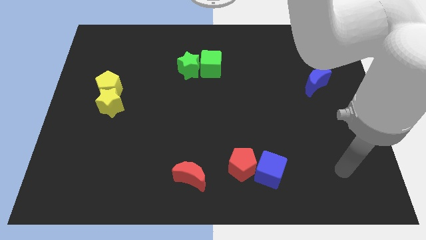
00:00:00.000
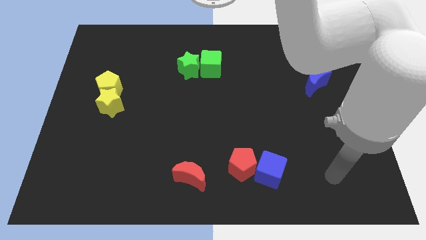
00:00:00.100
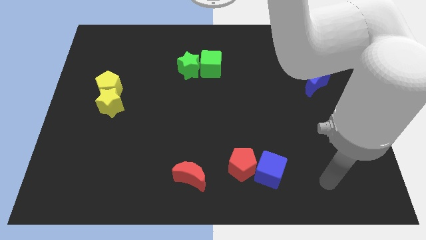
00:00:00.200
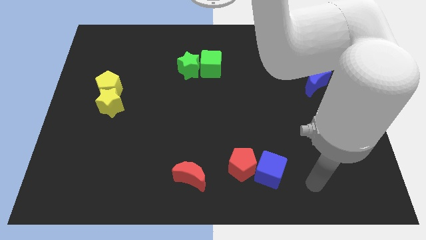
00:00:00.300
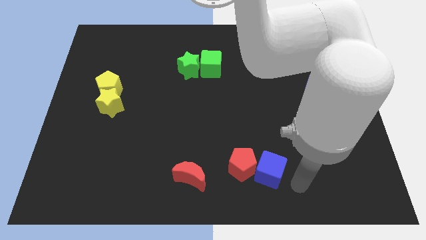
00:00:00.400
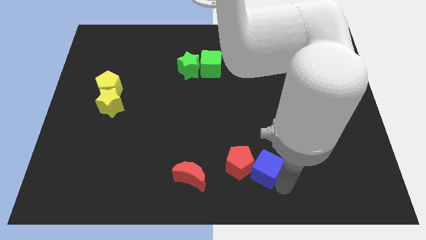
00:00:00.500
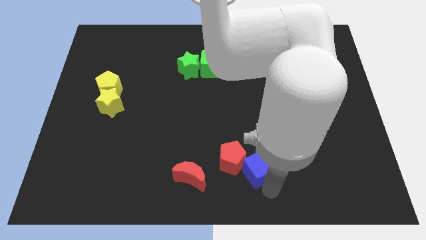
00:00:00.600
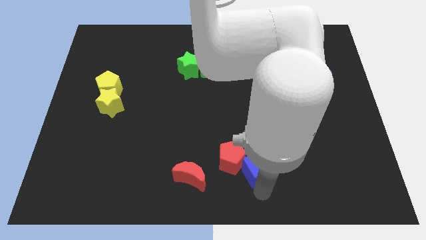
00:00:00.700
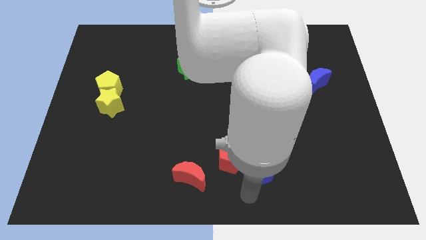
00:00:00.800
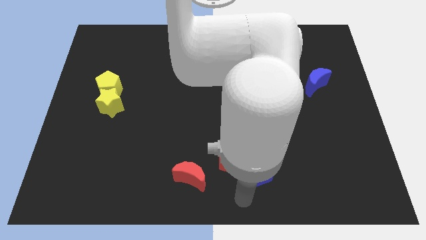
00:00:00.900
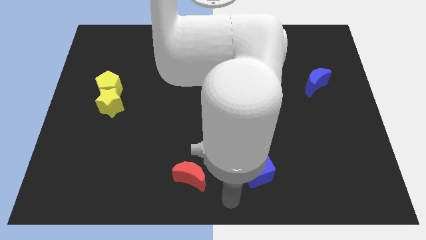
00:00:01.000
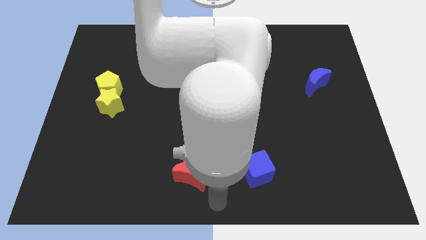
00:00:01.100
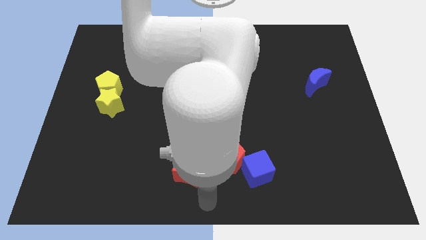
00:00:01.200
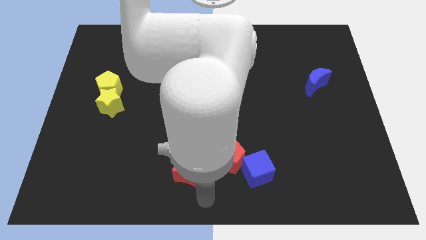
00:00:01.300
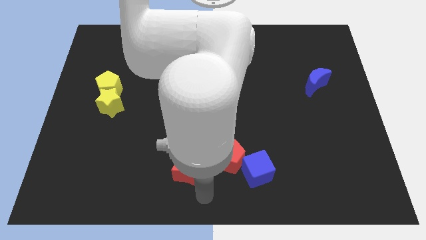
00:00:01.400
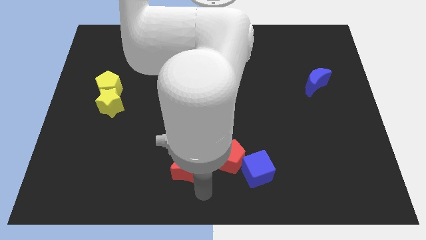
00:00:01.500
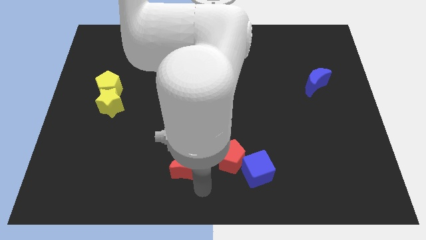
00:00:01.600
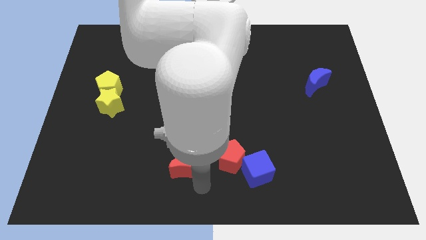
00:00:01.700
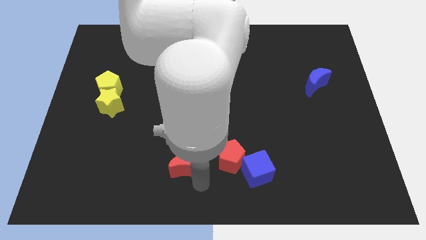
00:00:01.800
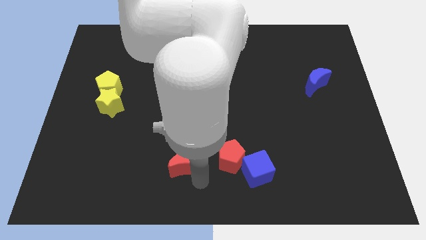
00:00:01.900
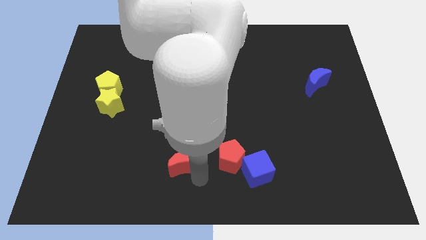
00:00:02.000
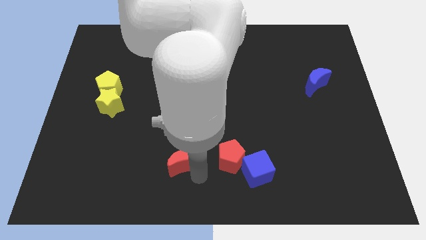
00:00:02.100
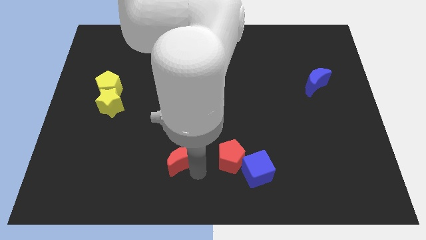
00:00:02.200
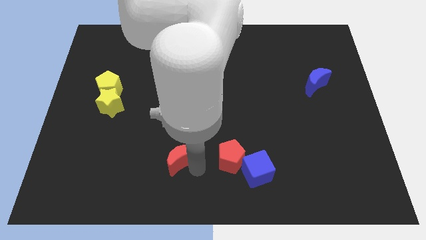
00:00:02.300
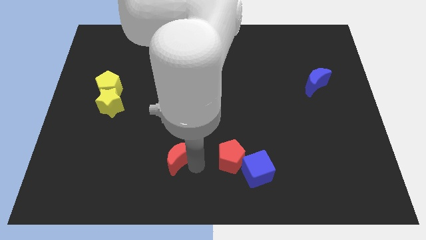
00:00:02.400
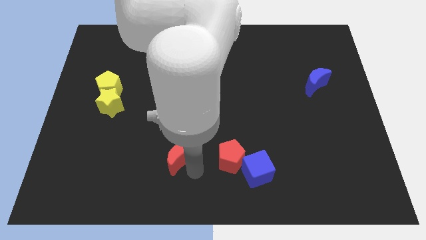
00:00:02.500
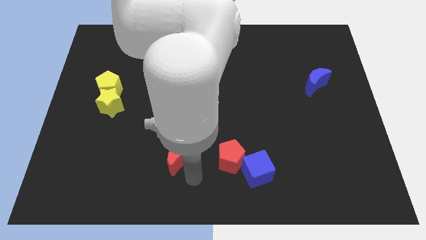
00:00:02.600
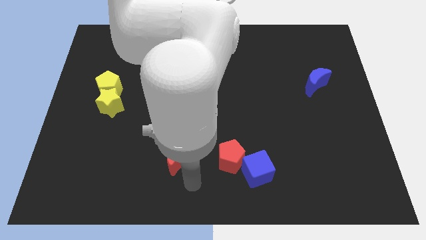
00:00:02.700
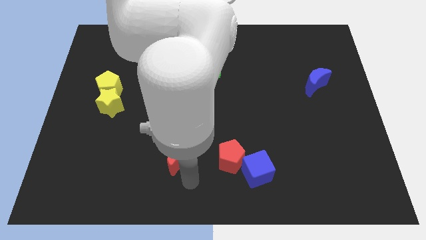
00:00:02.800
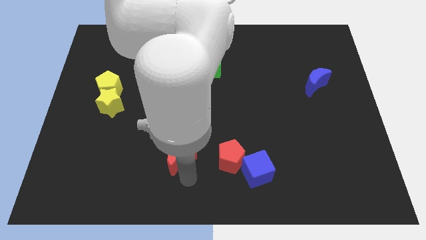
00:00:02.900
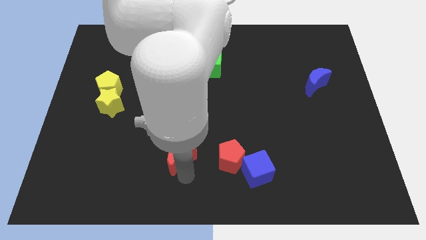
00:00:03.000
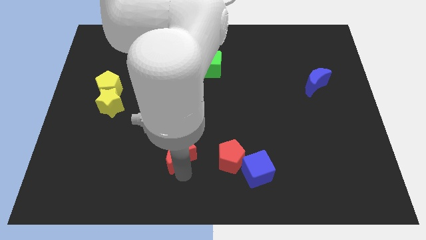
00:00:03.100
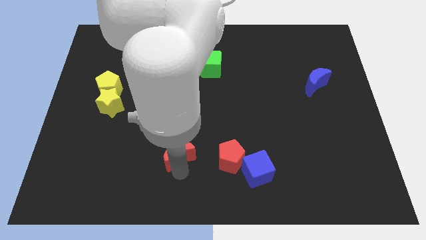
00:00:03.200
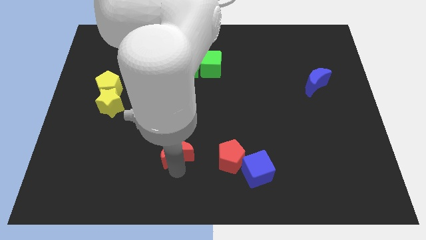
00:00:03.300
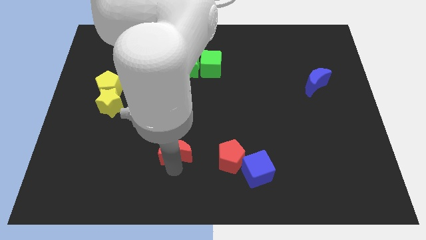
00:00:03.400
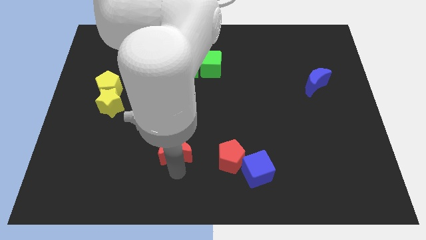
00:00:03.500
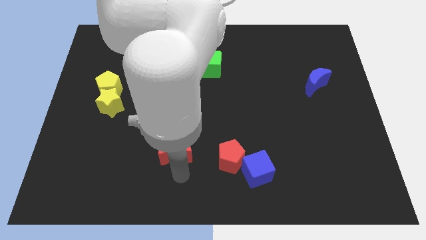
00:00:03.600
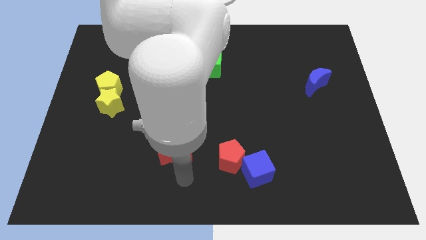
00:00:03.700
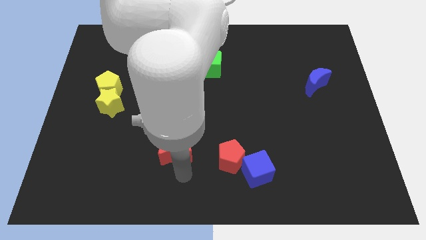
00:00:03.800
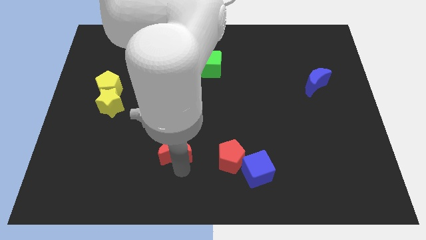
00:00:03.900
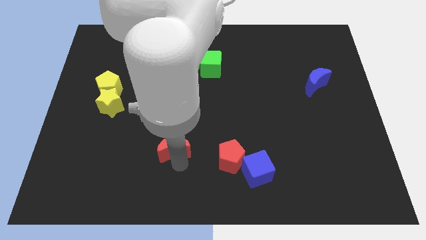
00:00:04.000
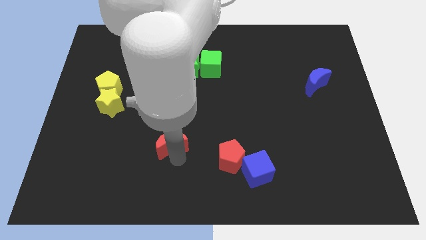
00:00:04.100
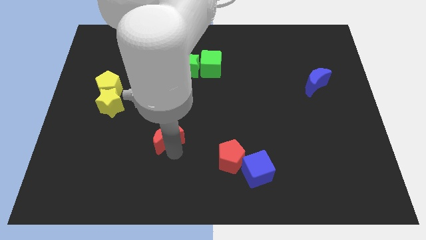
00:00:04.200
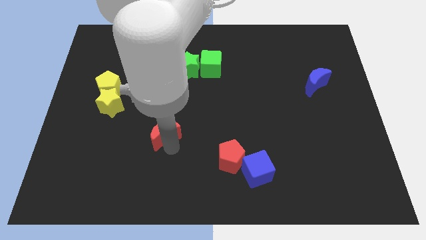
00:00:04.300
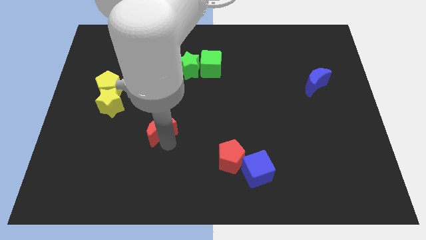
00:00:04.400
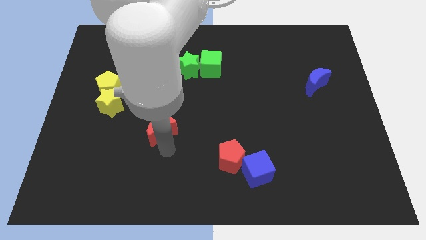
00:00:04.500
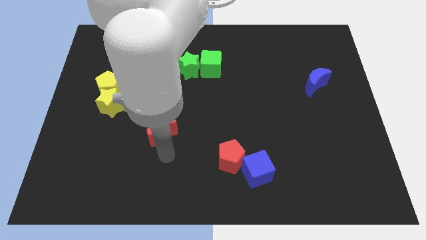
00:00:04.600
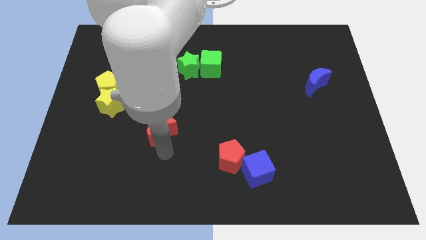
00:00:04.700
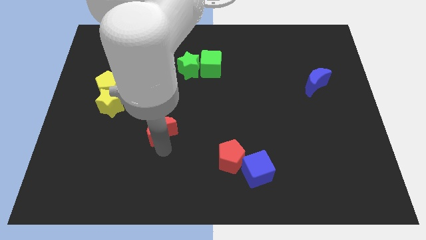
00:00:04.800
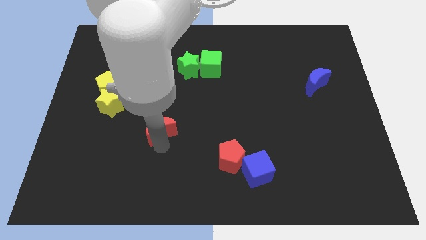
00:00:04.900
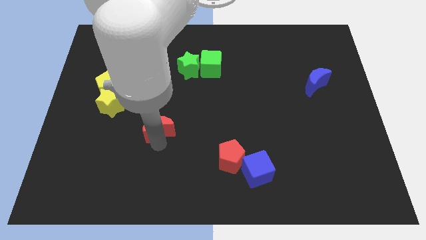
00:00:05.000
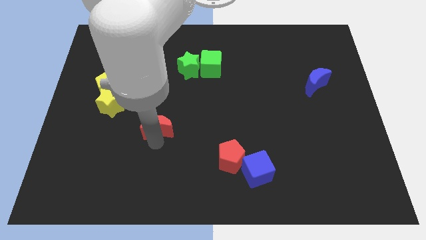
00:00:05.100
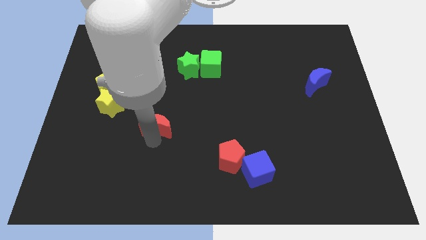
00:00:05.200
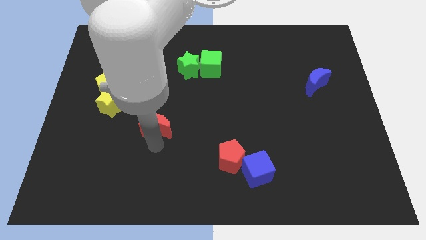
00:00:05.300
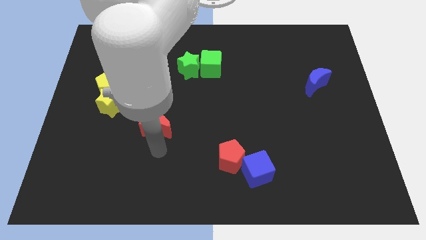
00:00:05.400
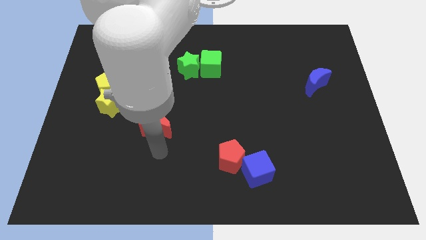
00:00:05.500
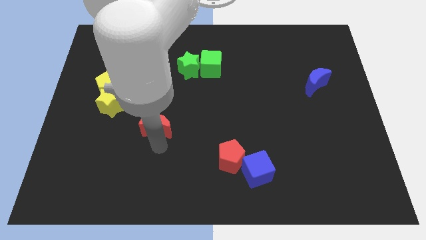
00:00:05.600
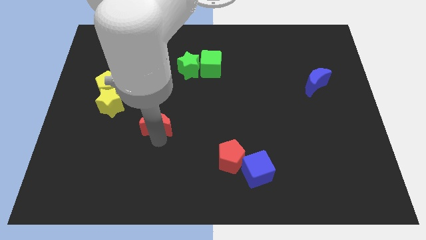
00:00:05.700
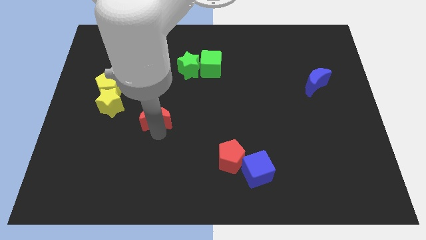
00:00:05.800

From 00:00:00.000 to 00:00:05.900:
slide the red moon to the right side of the yellow star

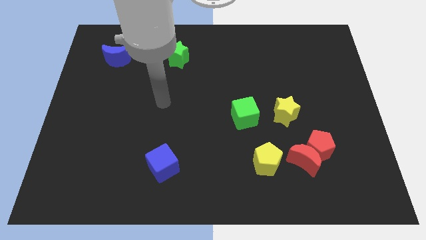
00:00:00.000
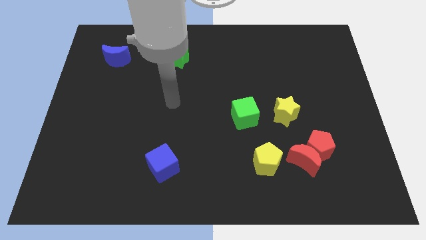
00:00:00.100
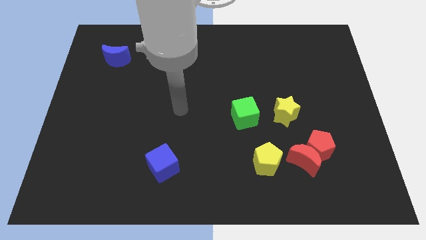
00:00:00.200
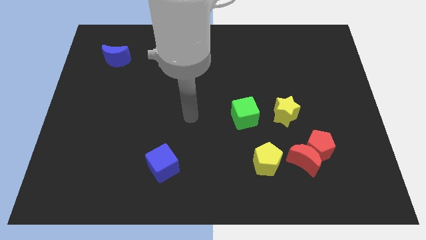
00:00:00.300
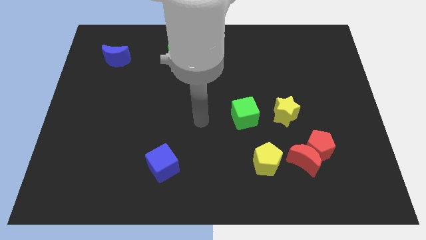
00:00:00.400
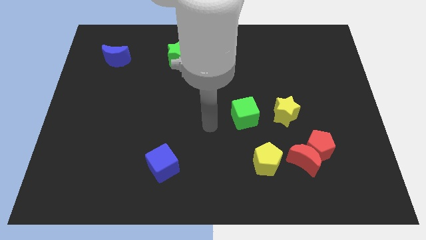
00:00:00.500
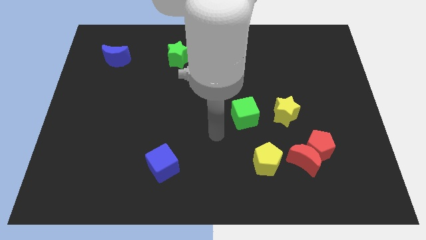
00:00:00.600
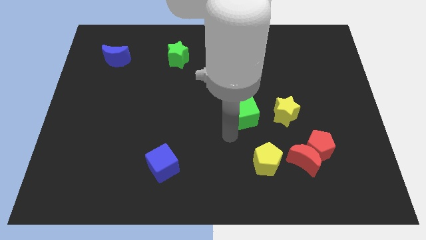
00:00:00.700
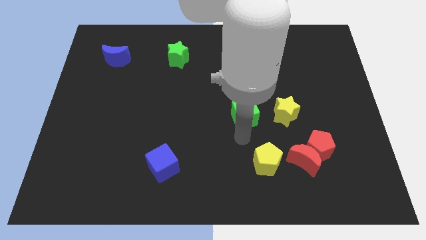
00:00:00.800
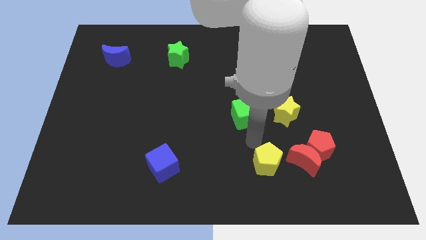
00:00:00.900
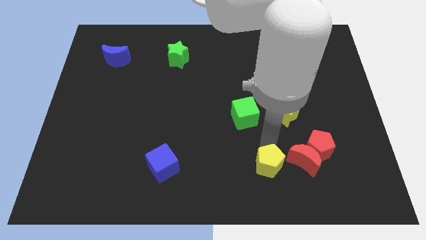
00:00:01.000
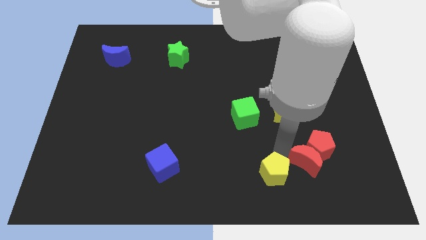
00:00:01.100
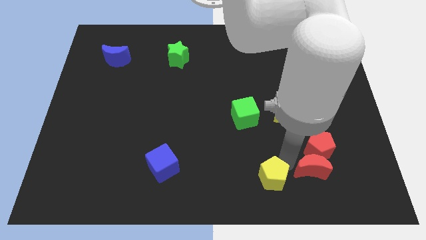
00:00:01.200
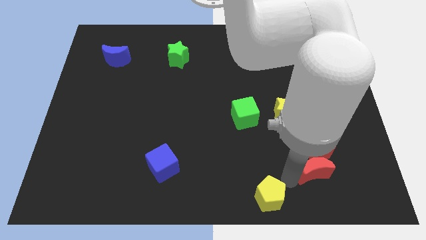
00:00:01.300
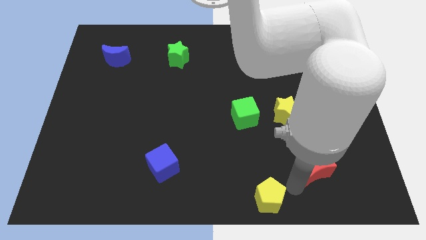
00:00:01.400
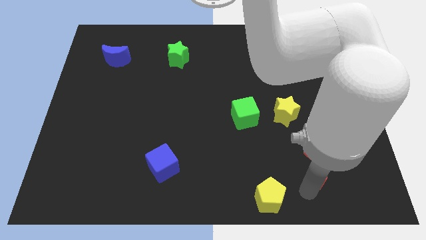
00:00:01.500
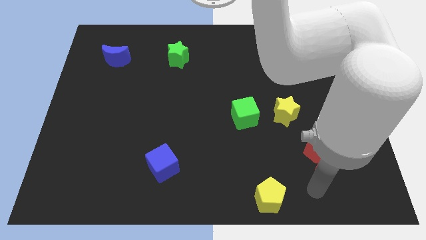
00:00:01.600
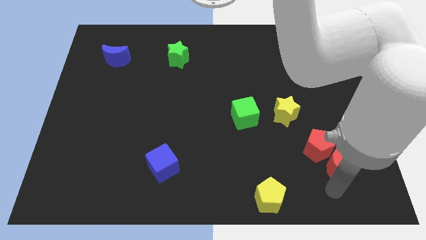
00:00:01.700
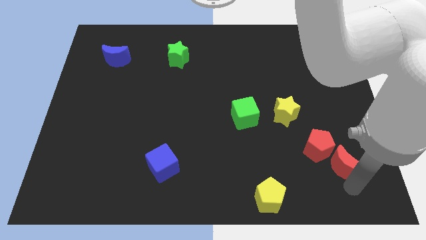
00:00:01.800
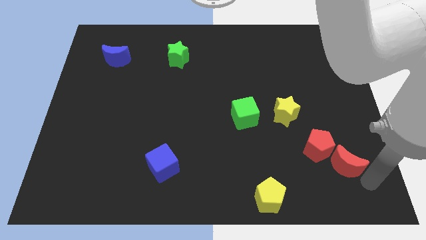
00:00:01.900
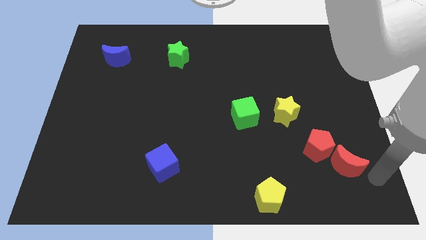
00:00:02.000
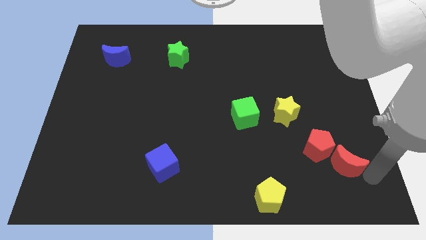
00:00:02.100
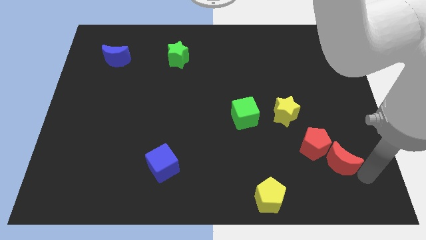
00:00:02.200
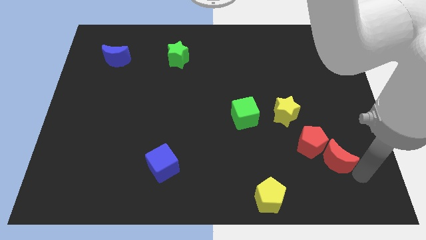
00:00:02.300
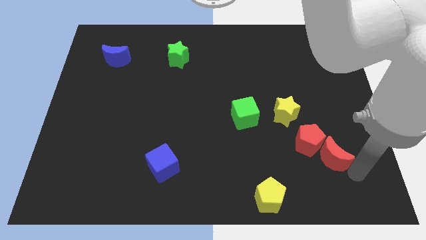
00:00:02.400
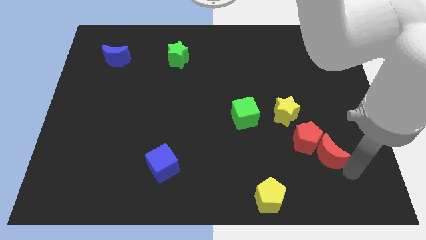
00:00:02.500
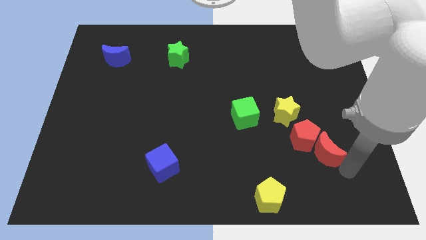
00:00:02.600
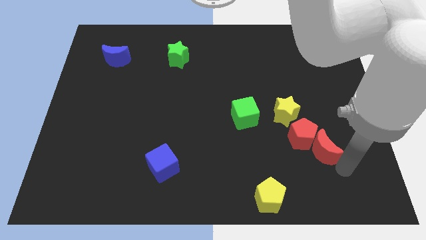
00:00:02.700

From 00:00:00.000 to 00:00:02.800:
push the red moon diagonally down and to the right of the yellow star
